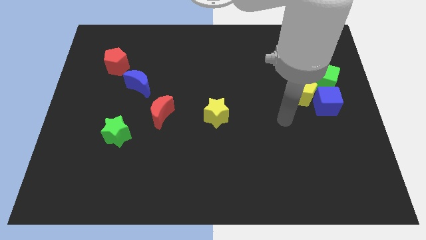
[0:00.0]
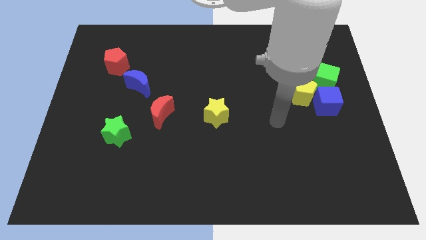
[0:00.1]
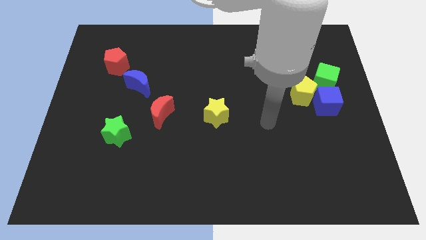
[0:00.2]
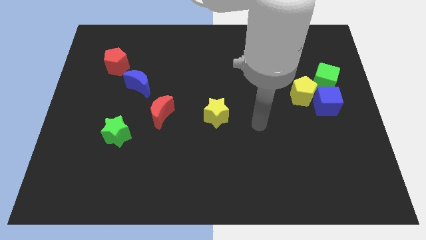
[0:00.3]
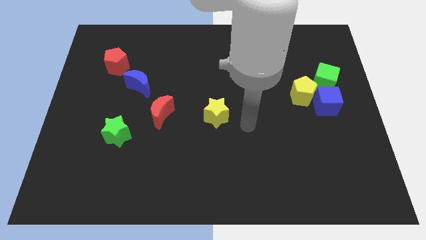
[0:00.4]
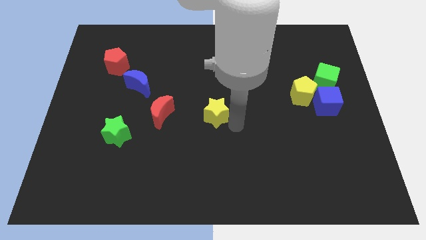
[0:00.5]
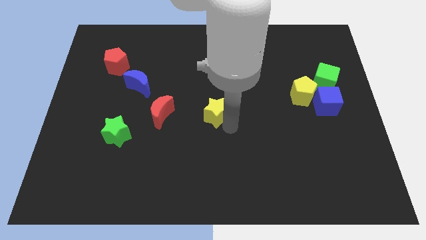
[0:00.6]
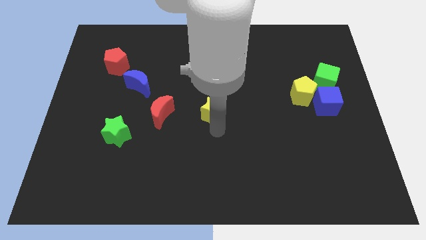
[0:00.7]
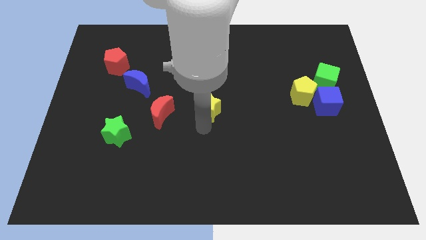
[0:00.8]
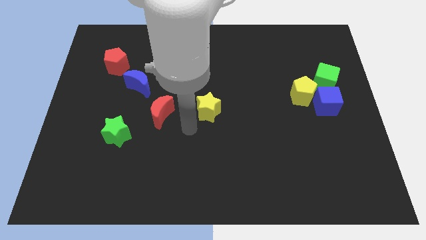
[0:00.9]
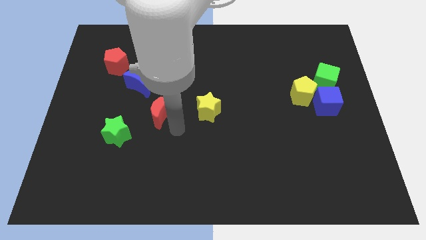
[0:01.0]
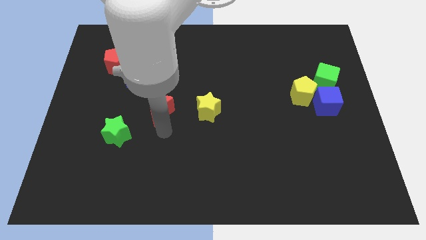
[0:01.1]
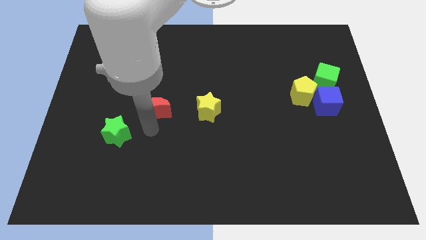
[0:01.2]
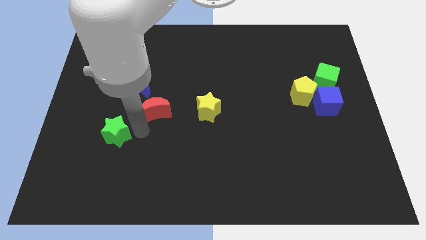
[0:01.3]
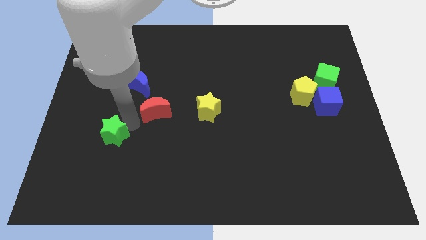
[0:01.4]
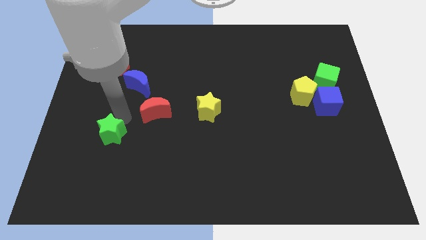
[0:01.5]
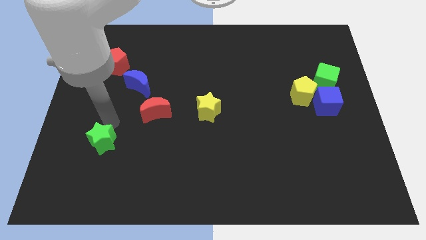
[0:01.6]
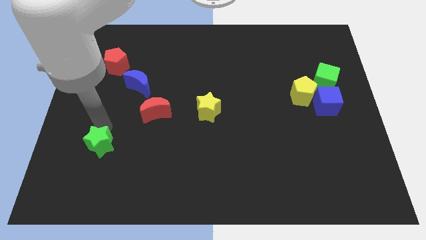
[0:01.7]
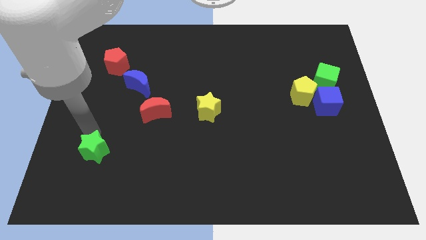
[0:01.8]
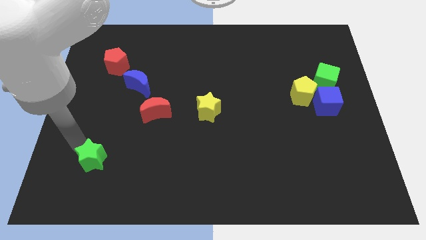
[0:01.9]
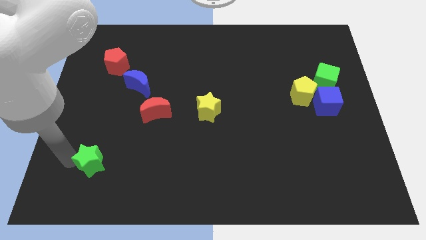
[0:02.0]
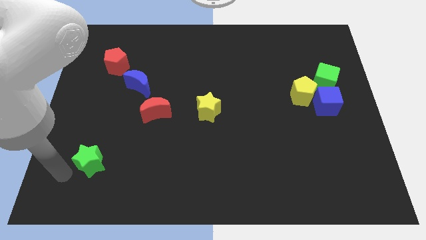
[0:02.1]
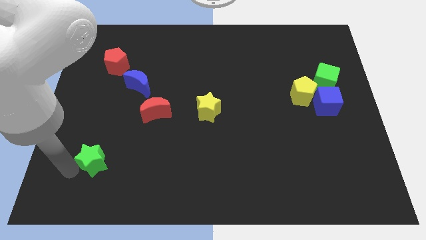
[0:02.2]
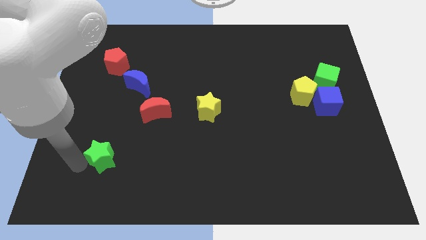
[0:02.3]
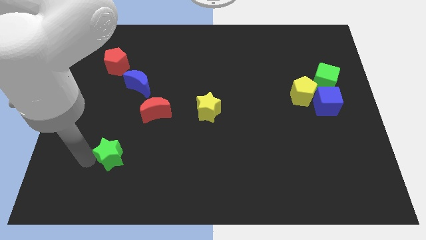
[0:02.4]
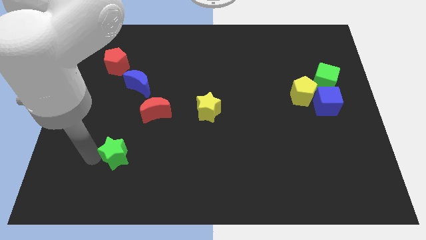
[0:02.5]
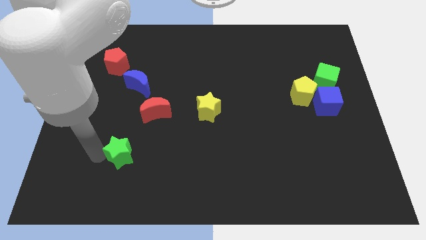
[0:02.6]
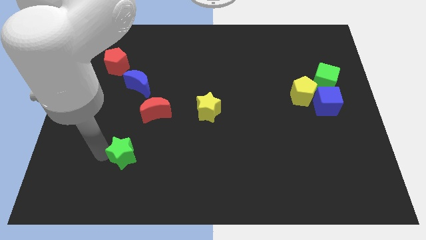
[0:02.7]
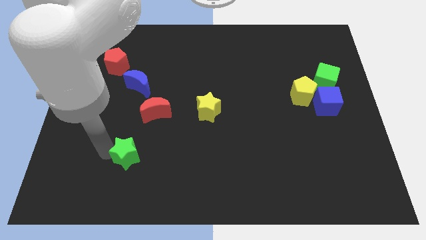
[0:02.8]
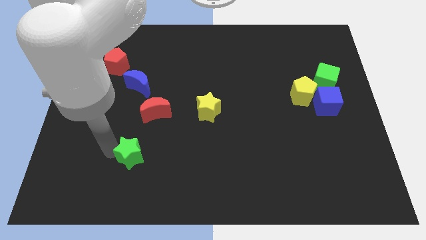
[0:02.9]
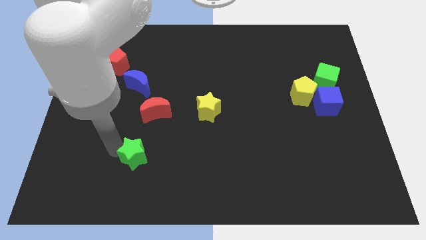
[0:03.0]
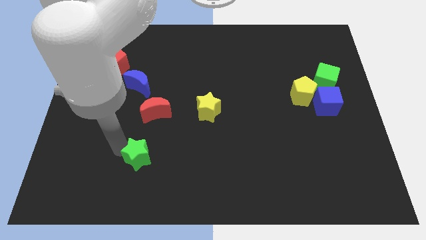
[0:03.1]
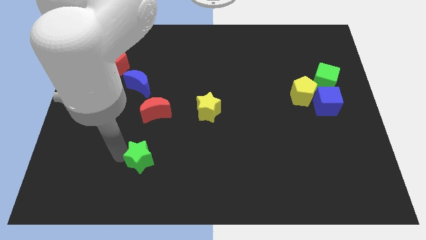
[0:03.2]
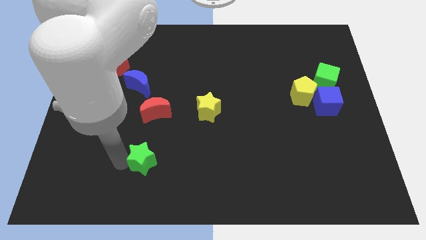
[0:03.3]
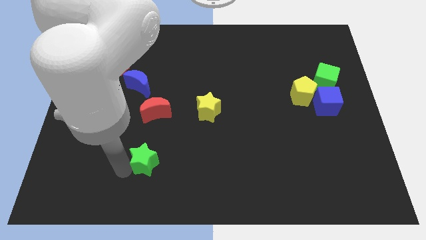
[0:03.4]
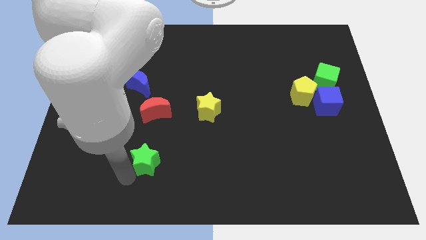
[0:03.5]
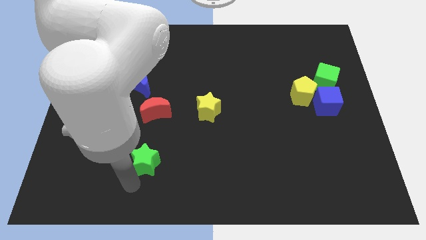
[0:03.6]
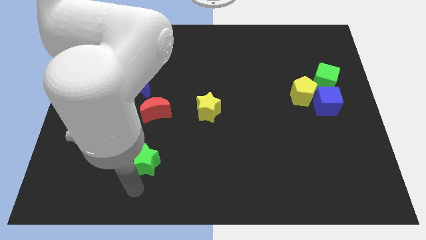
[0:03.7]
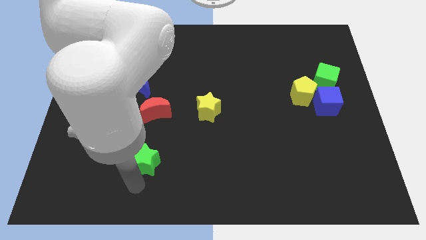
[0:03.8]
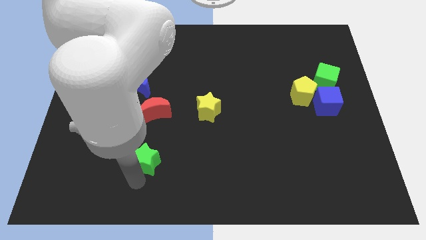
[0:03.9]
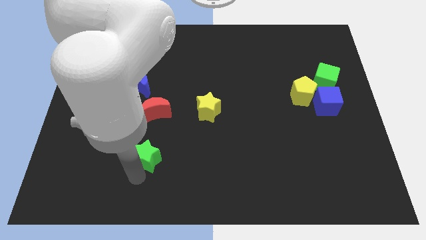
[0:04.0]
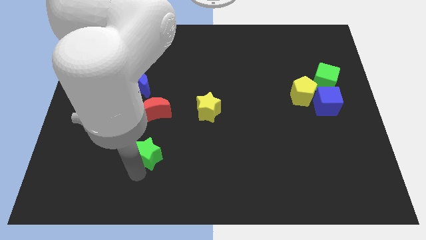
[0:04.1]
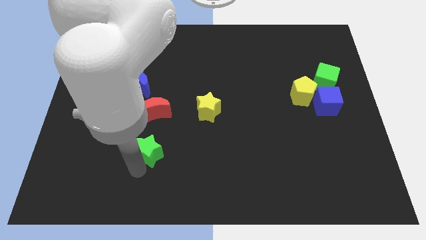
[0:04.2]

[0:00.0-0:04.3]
slide the green star right a bit

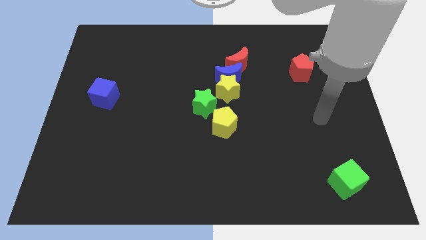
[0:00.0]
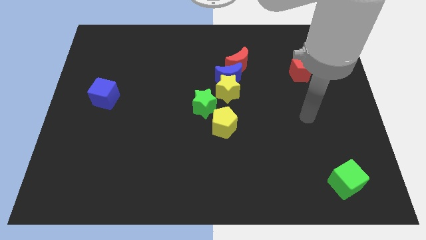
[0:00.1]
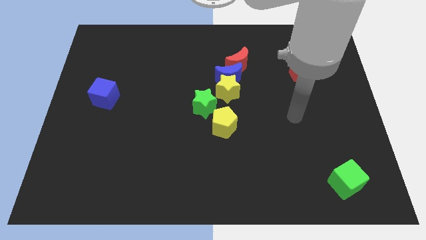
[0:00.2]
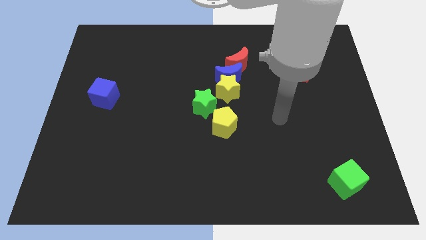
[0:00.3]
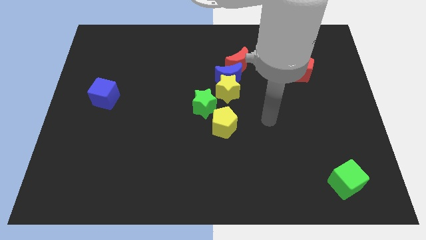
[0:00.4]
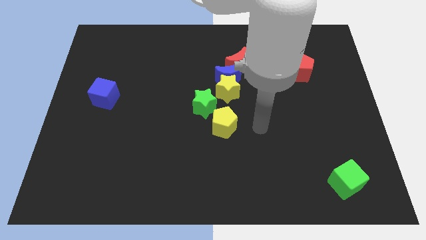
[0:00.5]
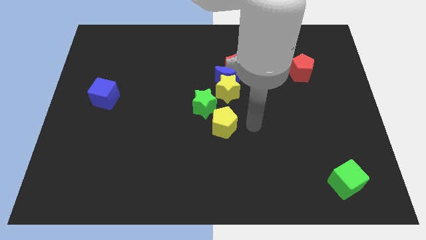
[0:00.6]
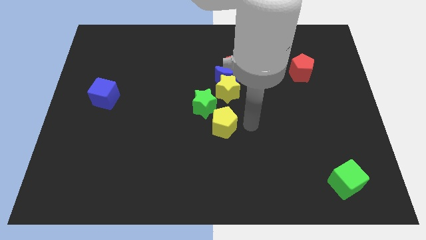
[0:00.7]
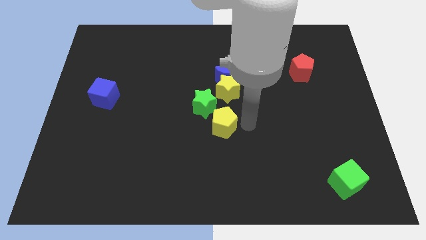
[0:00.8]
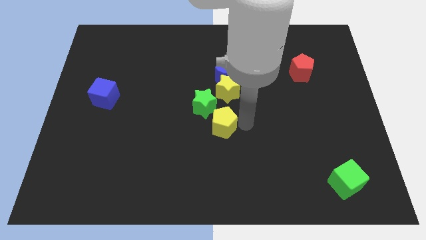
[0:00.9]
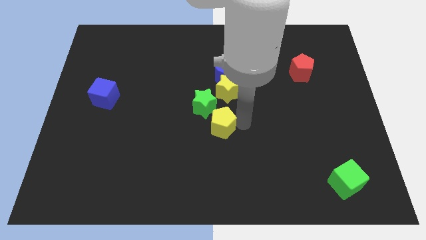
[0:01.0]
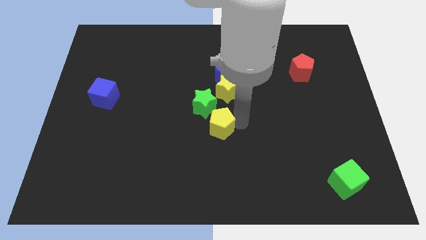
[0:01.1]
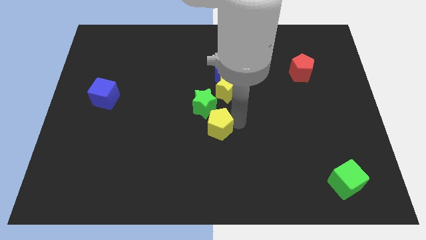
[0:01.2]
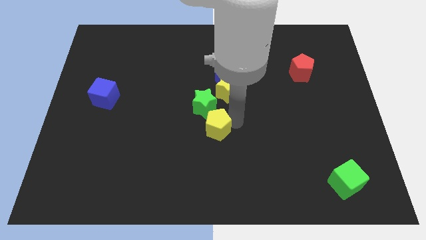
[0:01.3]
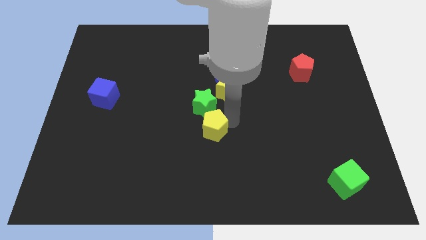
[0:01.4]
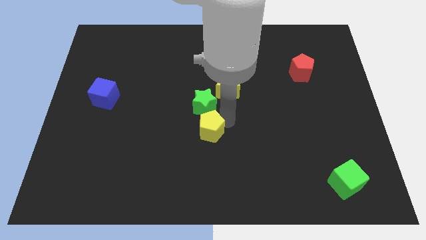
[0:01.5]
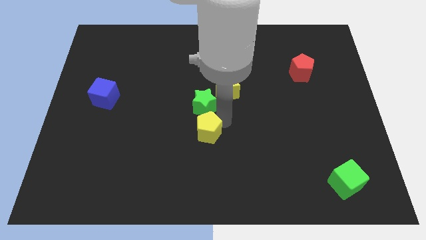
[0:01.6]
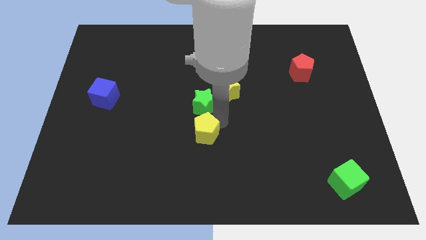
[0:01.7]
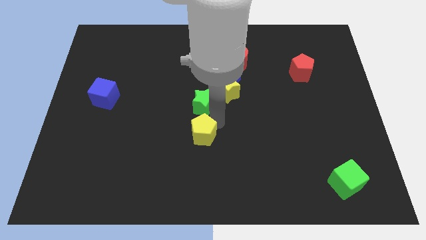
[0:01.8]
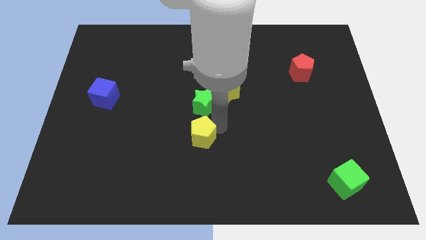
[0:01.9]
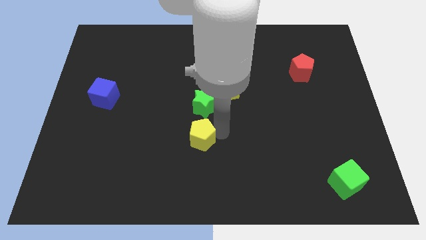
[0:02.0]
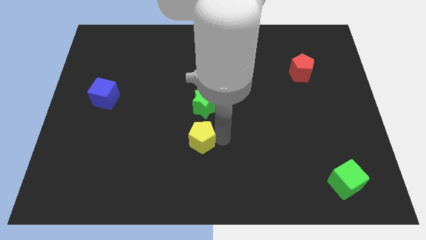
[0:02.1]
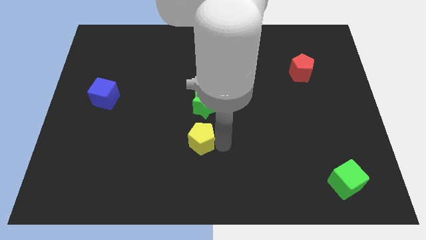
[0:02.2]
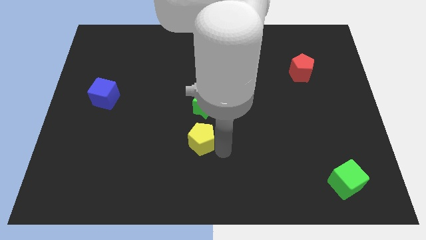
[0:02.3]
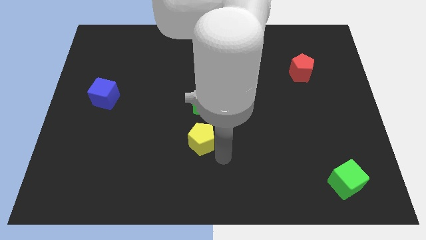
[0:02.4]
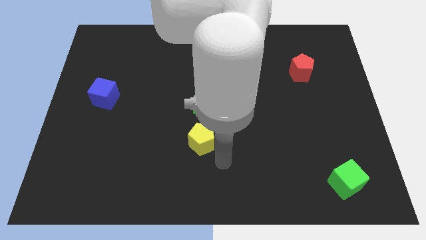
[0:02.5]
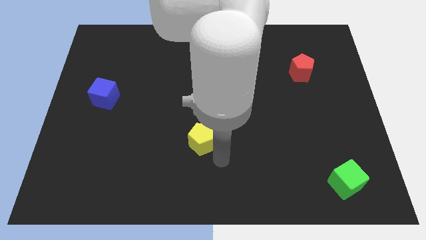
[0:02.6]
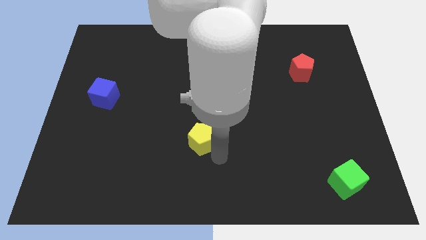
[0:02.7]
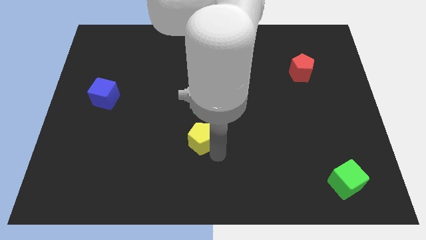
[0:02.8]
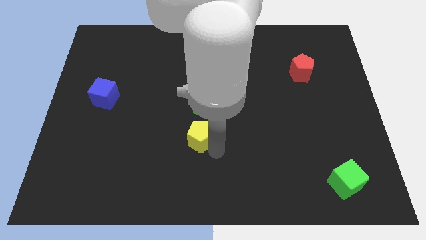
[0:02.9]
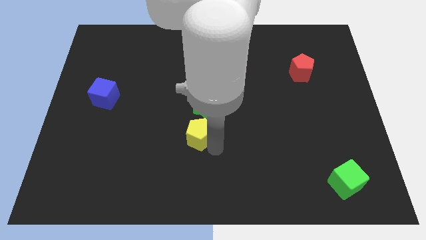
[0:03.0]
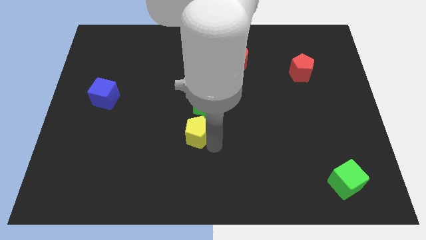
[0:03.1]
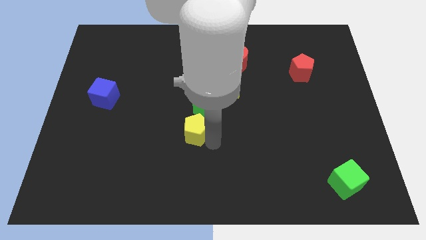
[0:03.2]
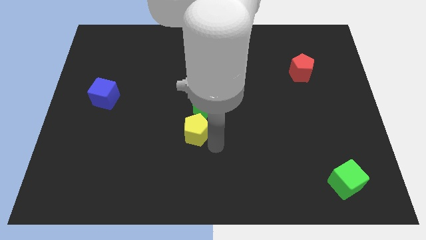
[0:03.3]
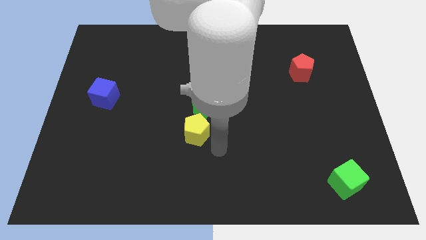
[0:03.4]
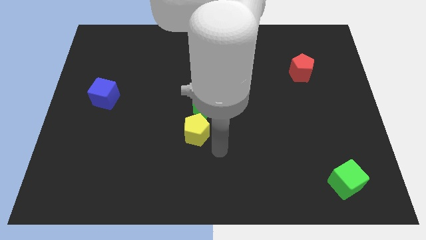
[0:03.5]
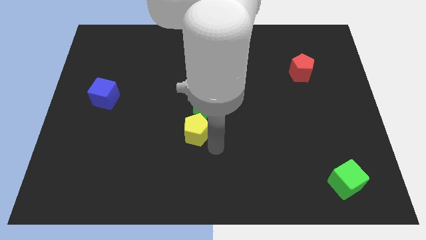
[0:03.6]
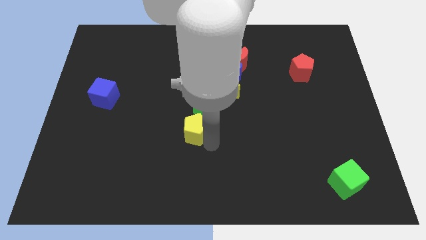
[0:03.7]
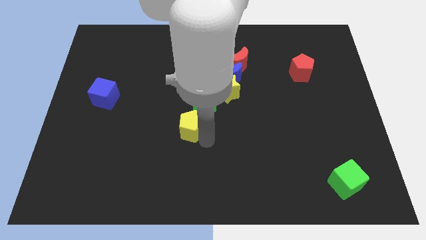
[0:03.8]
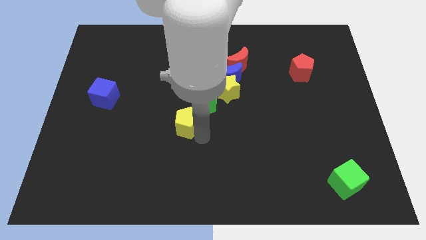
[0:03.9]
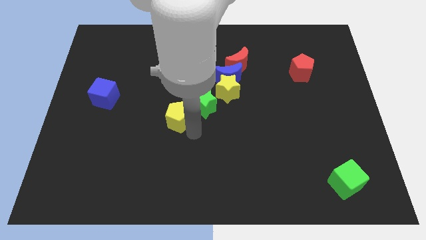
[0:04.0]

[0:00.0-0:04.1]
push the yellow pentagon diagonally up and left slightly
